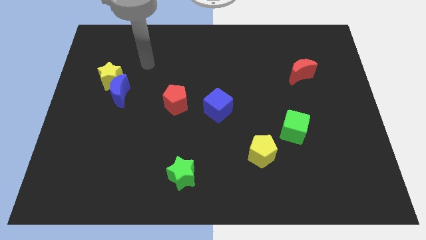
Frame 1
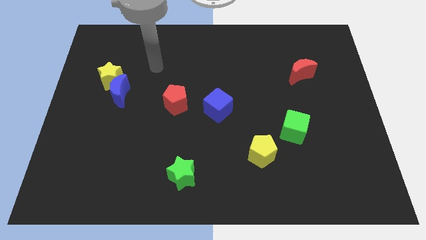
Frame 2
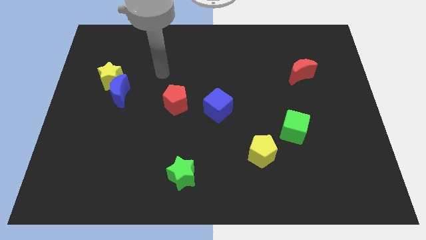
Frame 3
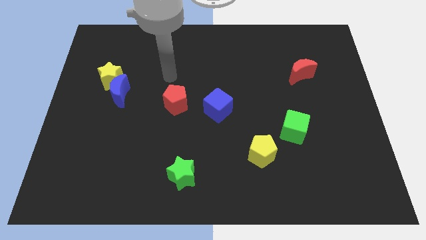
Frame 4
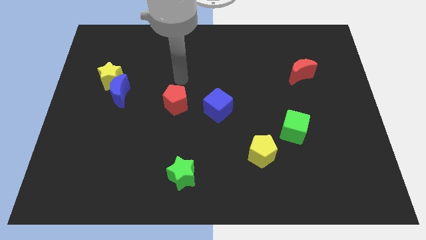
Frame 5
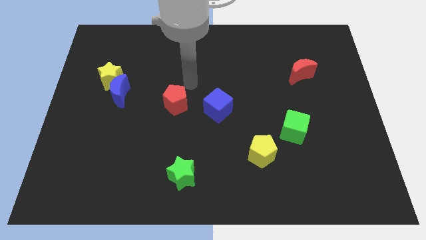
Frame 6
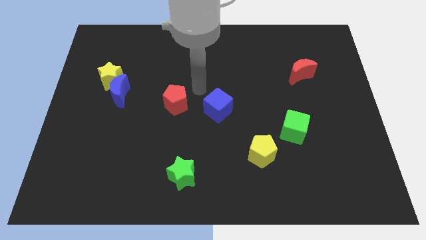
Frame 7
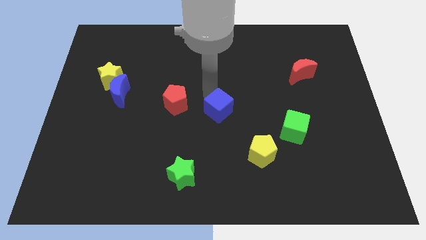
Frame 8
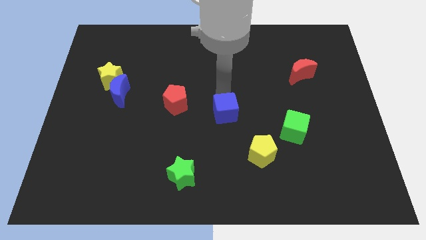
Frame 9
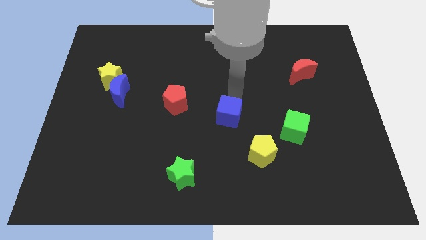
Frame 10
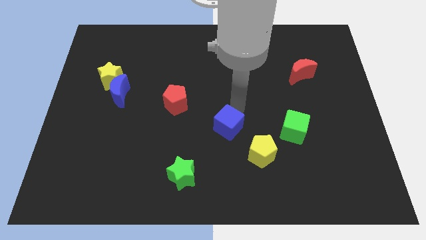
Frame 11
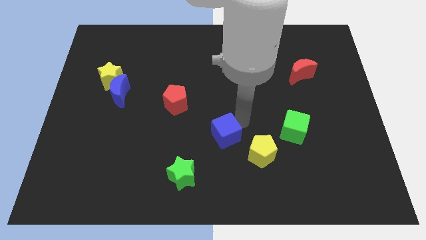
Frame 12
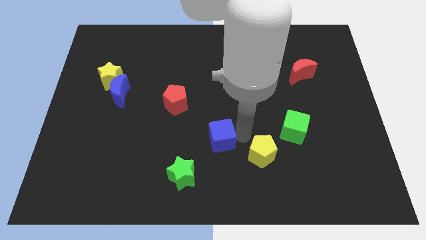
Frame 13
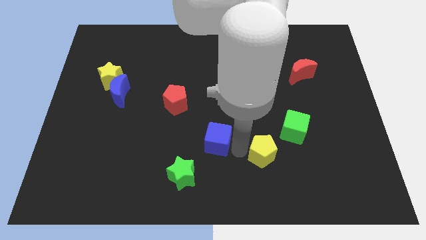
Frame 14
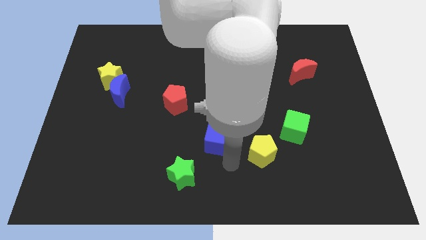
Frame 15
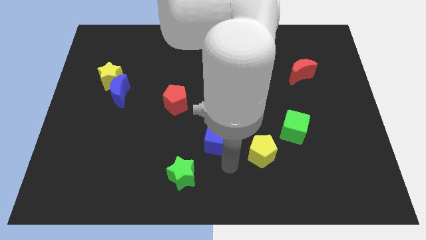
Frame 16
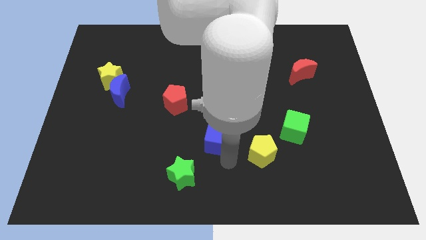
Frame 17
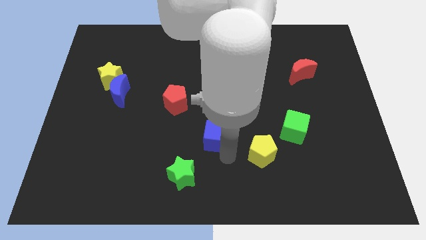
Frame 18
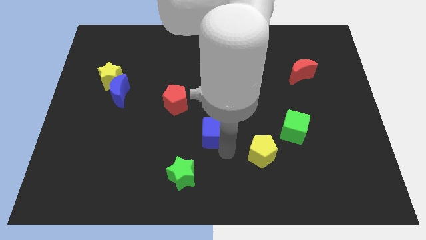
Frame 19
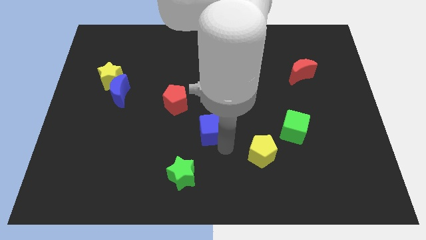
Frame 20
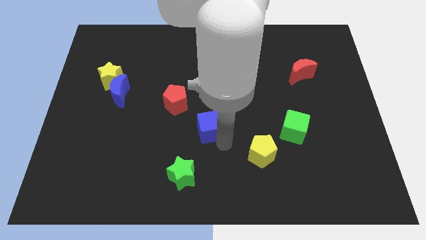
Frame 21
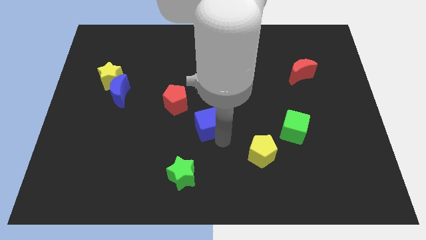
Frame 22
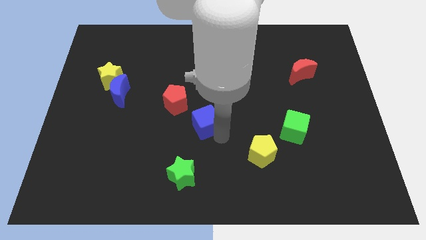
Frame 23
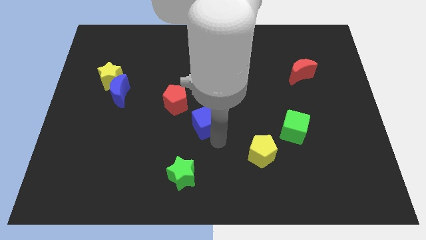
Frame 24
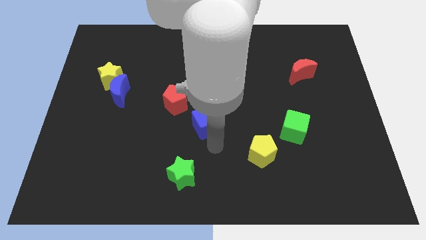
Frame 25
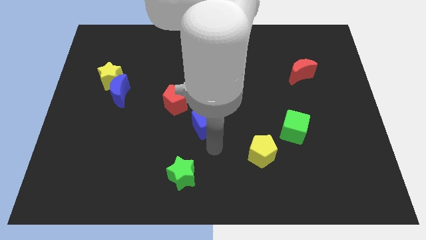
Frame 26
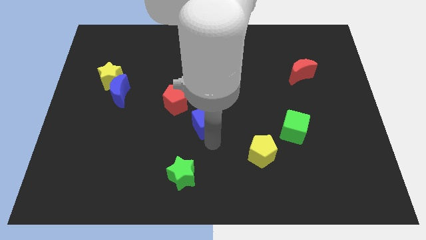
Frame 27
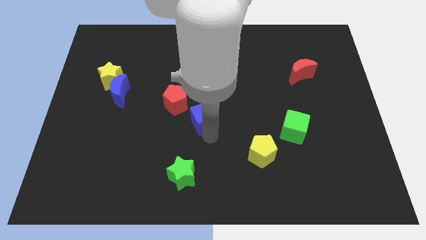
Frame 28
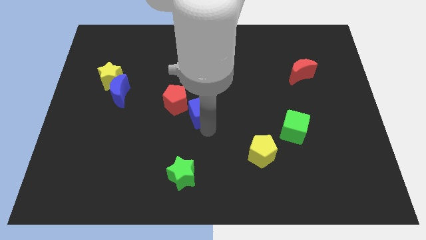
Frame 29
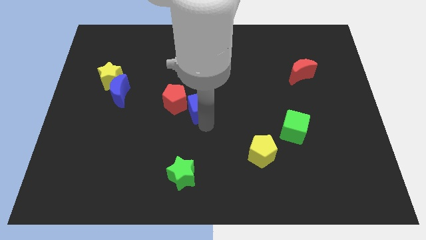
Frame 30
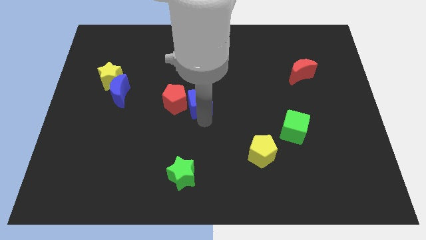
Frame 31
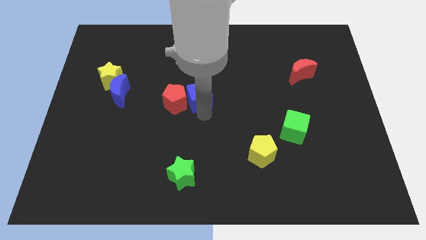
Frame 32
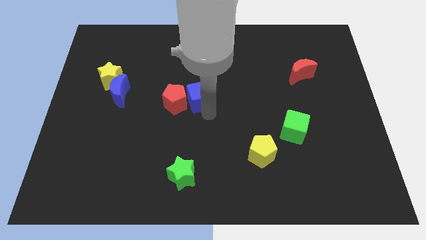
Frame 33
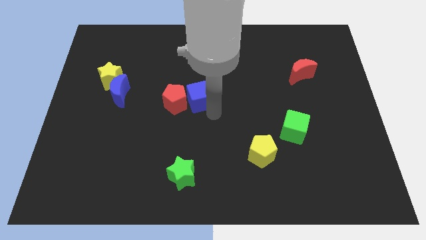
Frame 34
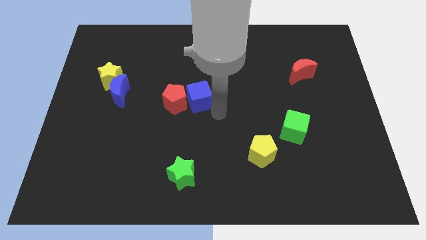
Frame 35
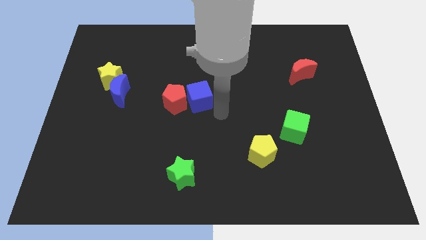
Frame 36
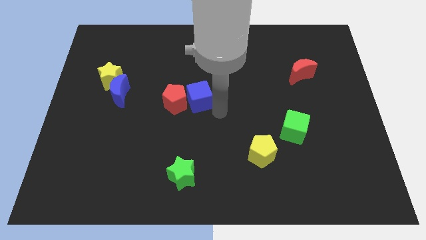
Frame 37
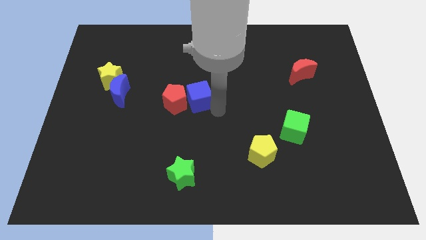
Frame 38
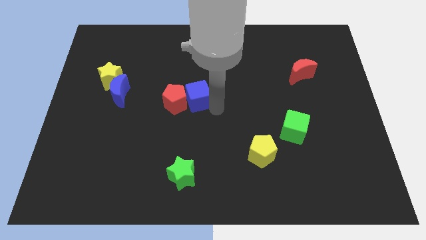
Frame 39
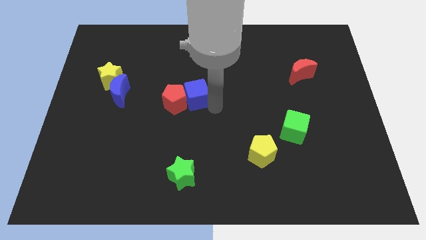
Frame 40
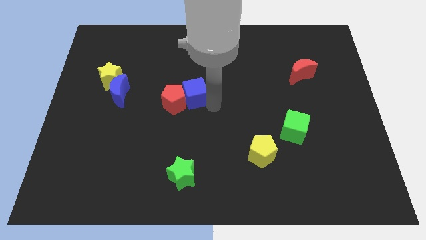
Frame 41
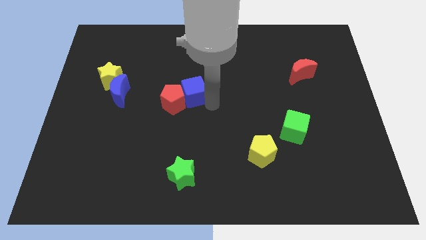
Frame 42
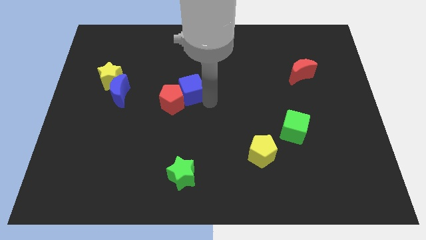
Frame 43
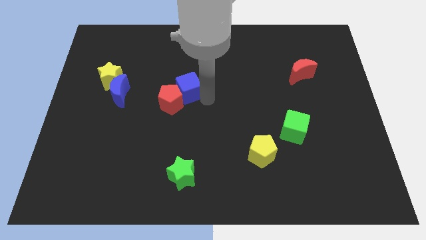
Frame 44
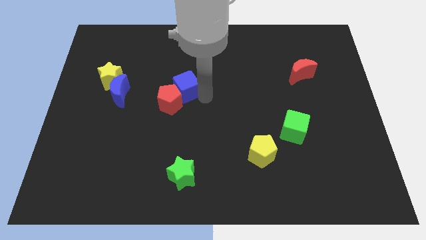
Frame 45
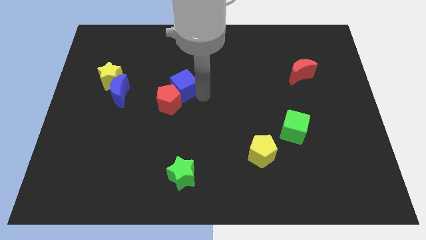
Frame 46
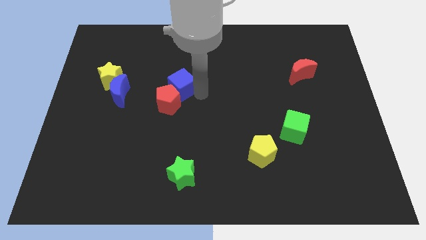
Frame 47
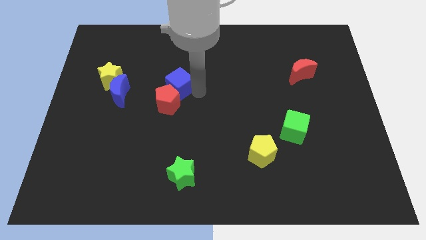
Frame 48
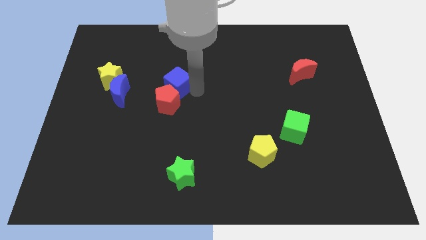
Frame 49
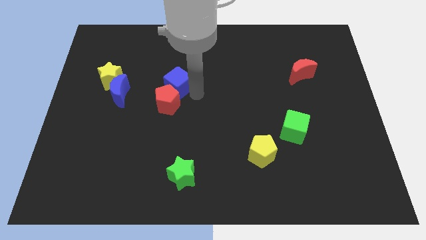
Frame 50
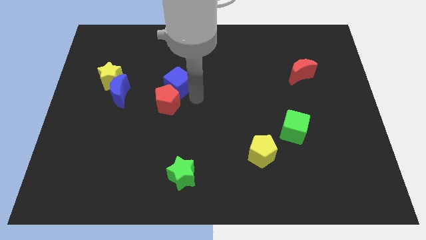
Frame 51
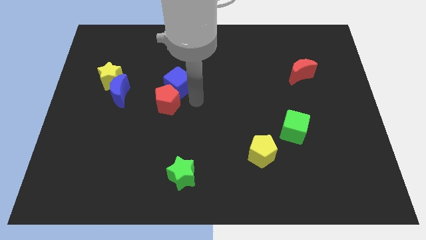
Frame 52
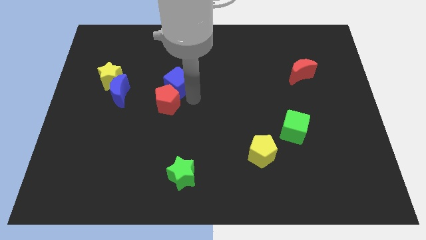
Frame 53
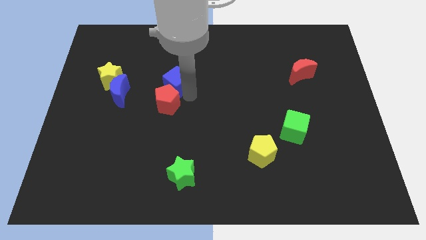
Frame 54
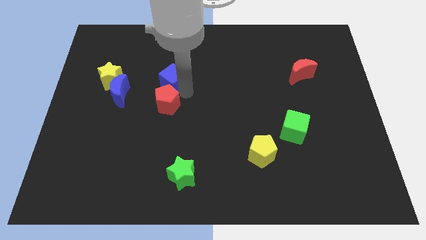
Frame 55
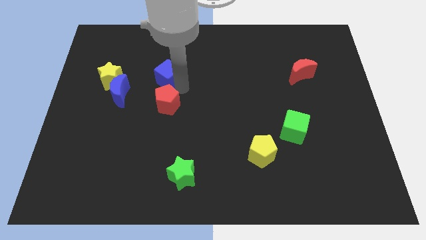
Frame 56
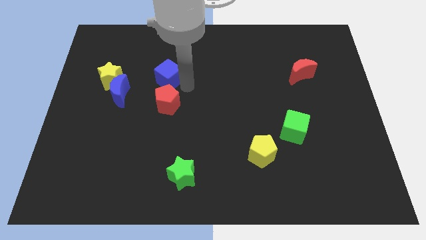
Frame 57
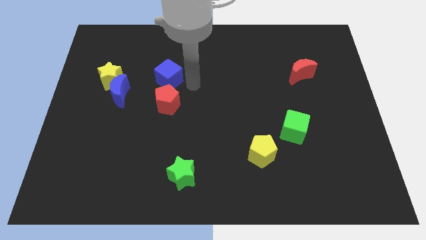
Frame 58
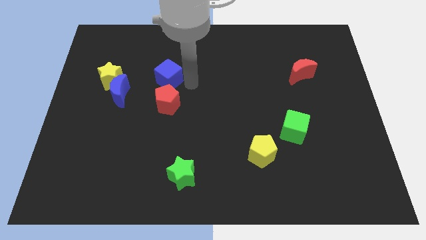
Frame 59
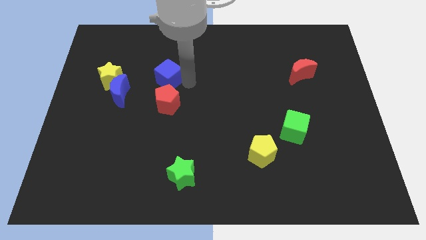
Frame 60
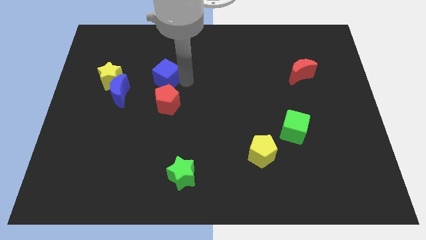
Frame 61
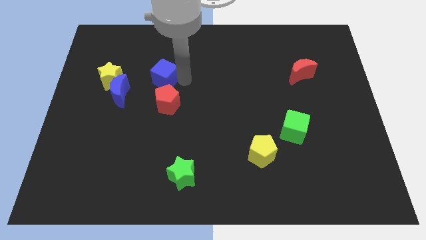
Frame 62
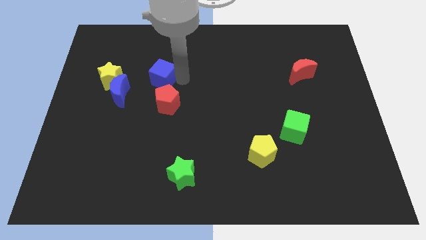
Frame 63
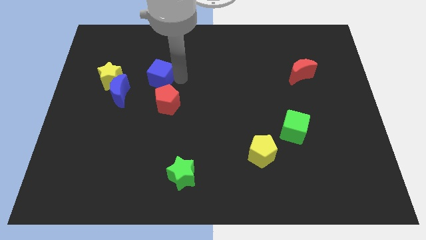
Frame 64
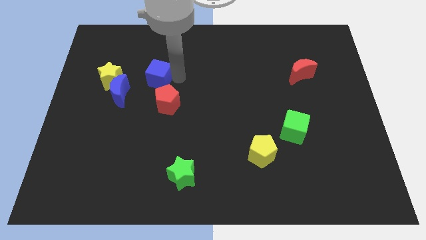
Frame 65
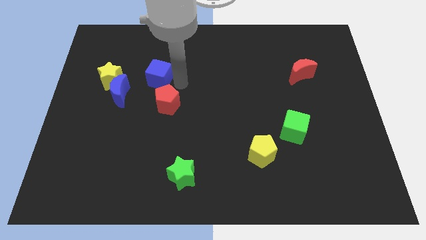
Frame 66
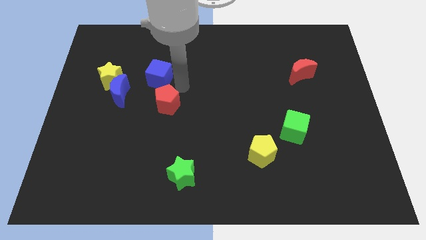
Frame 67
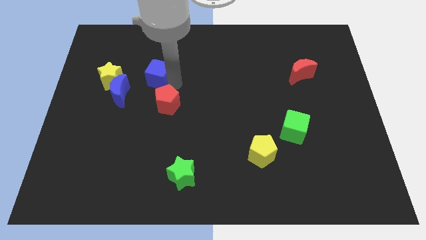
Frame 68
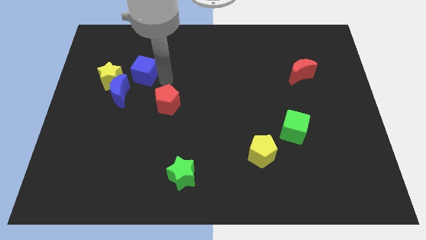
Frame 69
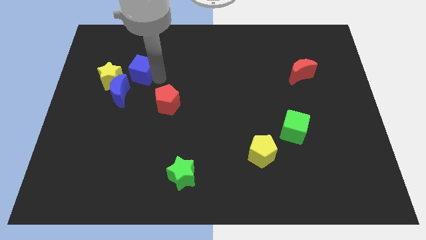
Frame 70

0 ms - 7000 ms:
put the blue cube to the top side of the blue moon

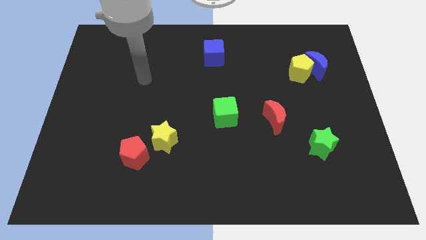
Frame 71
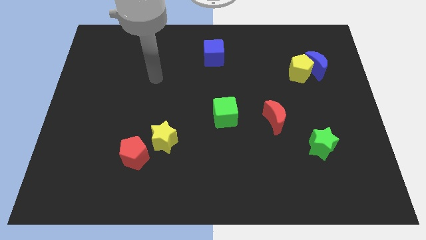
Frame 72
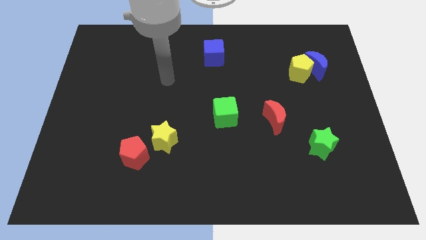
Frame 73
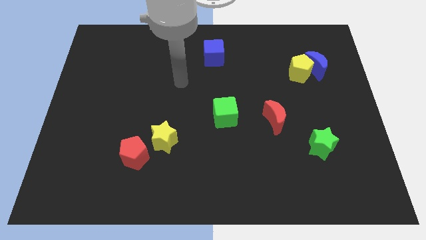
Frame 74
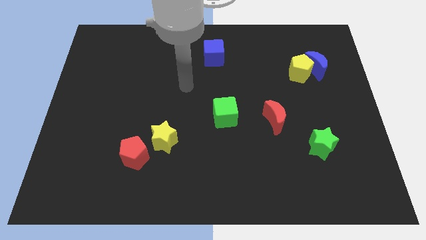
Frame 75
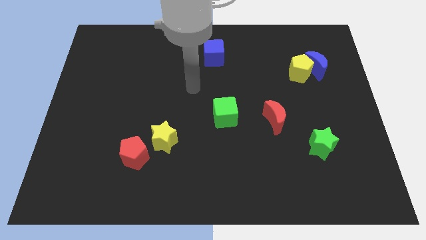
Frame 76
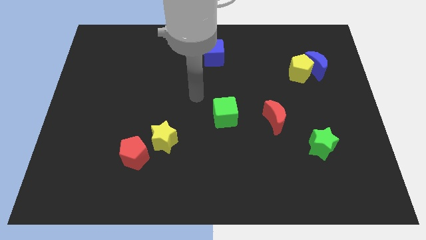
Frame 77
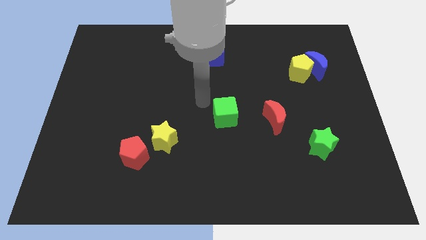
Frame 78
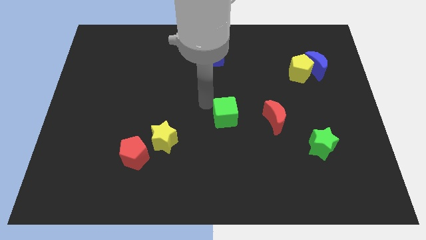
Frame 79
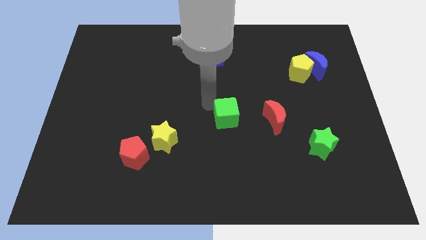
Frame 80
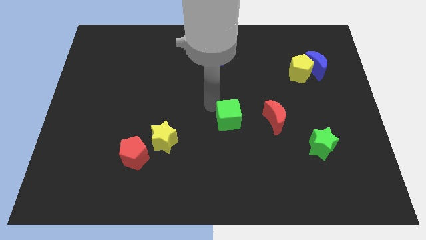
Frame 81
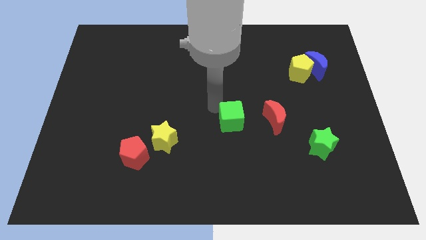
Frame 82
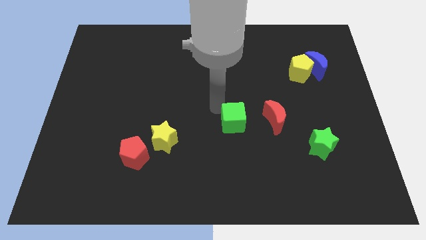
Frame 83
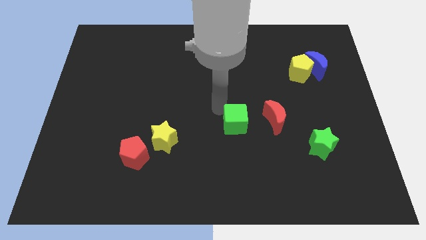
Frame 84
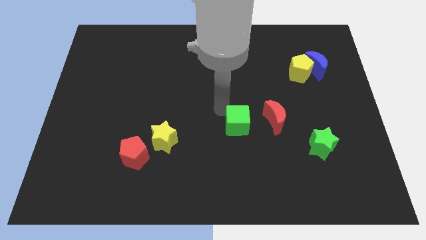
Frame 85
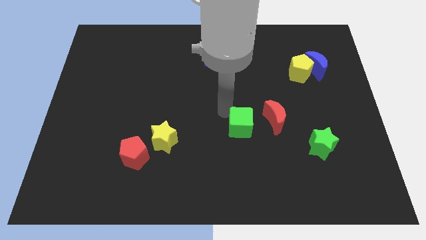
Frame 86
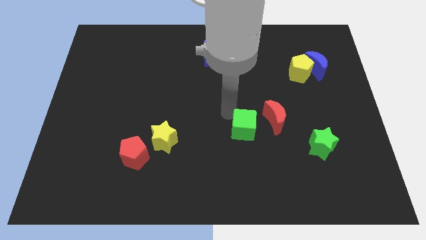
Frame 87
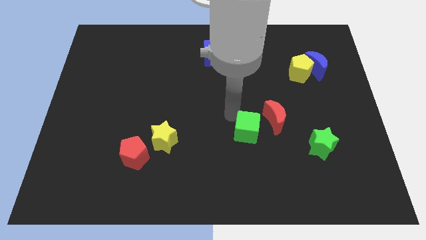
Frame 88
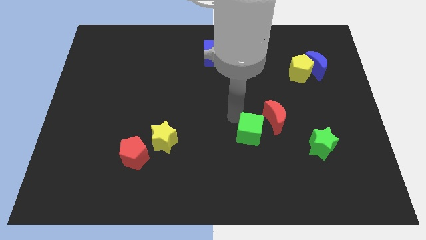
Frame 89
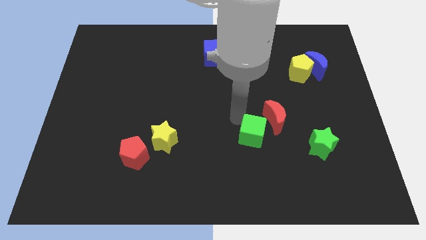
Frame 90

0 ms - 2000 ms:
move the green cube to the left of the green star
